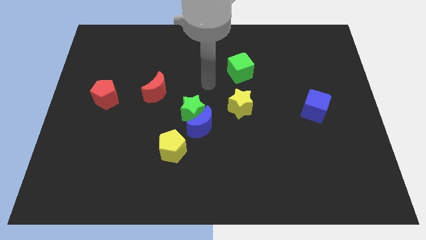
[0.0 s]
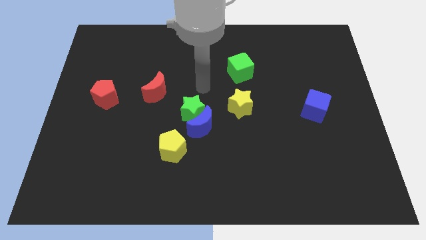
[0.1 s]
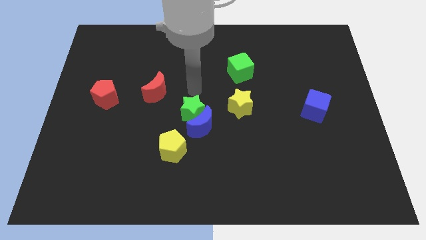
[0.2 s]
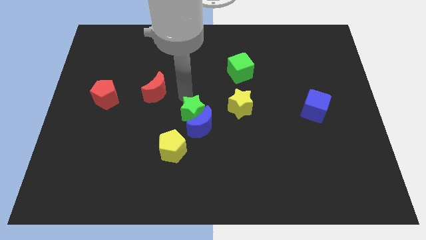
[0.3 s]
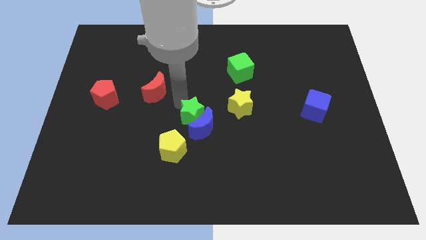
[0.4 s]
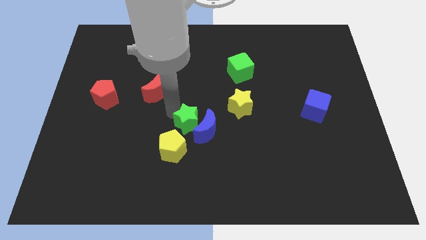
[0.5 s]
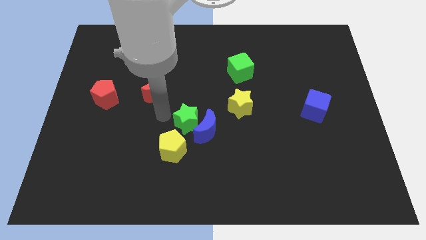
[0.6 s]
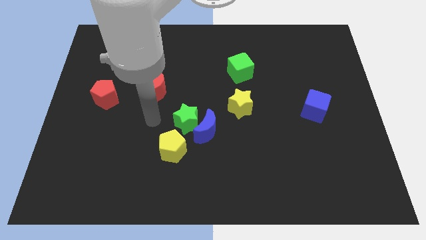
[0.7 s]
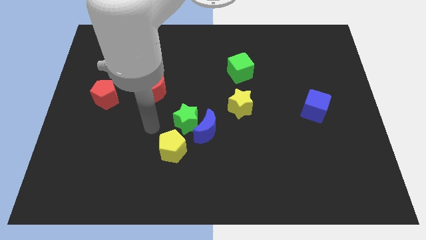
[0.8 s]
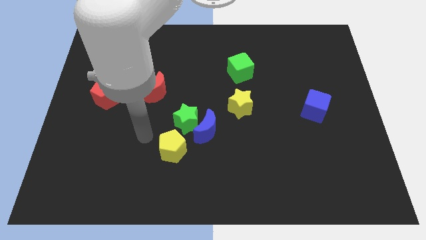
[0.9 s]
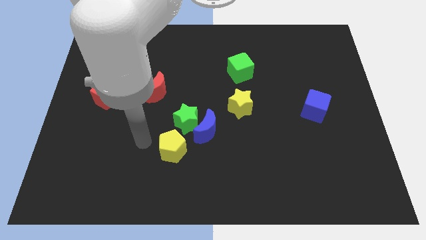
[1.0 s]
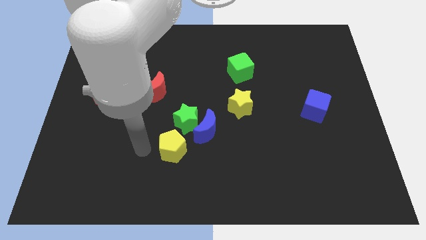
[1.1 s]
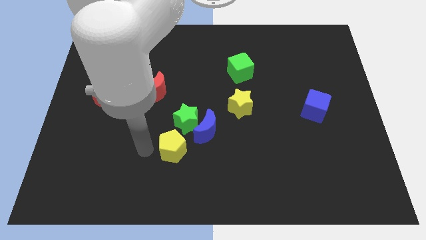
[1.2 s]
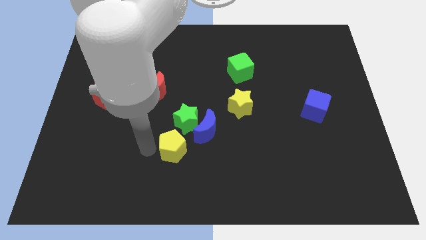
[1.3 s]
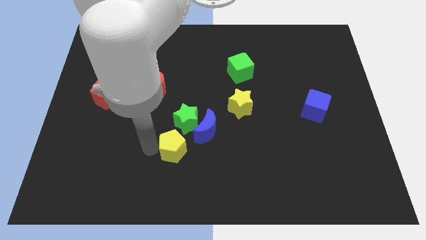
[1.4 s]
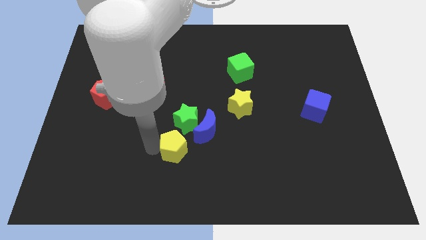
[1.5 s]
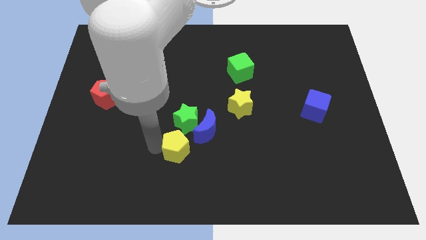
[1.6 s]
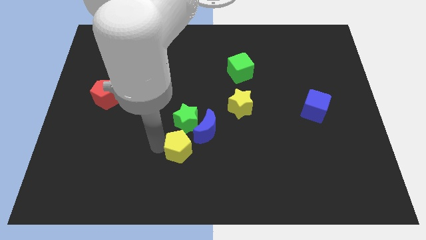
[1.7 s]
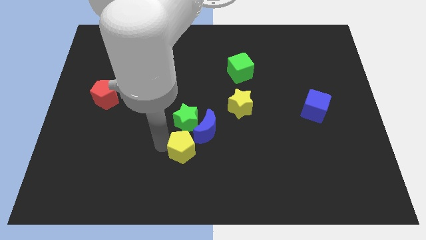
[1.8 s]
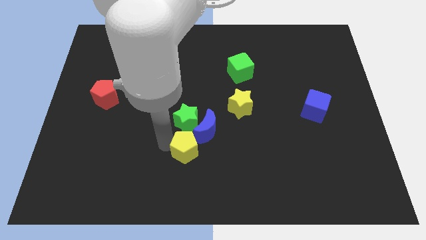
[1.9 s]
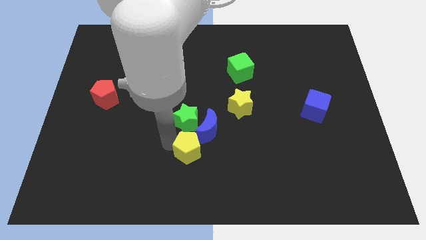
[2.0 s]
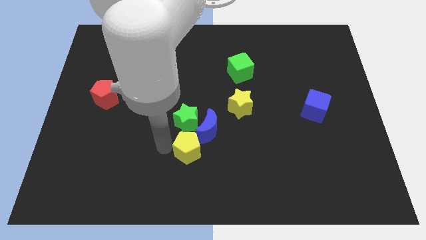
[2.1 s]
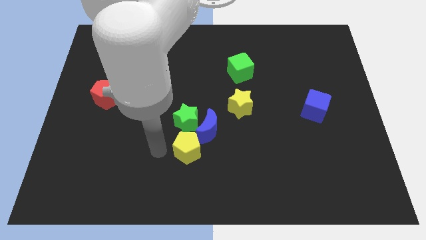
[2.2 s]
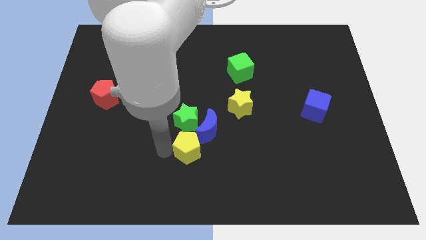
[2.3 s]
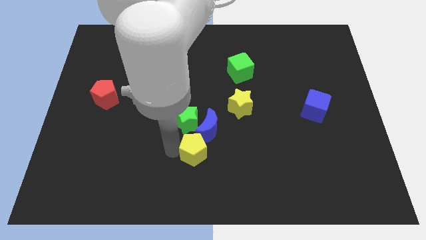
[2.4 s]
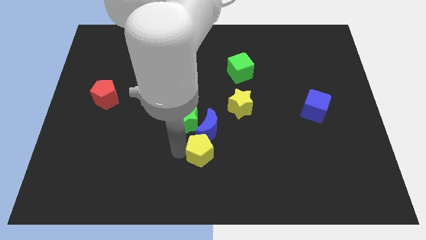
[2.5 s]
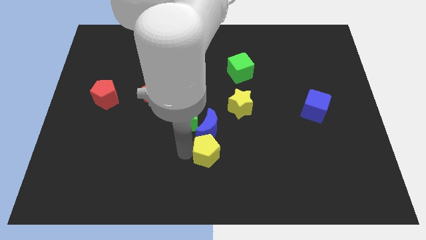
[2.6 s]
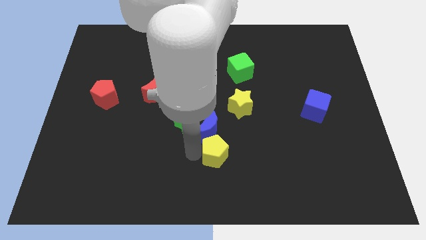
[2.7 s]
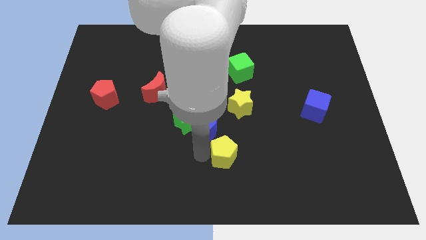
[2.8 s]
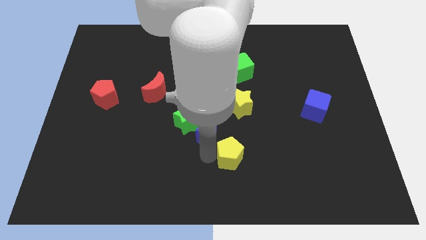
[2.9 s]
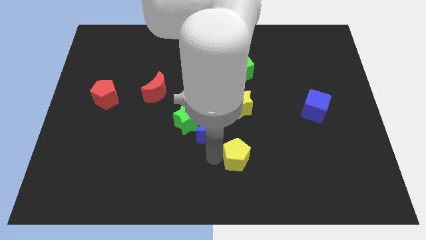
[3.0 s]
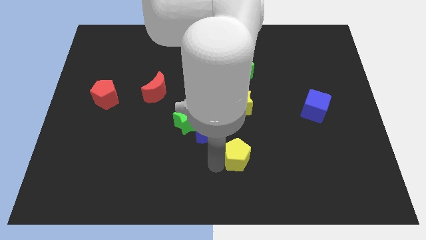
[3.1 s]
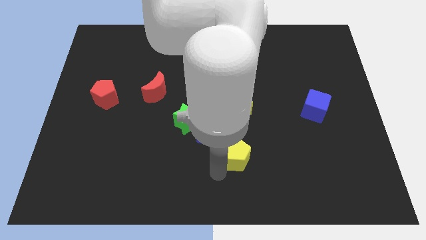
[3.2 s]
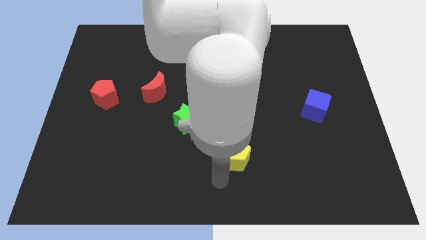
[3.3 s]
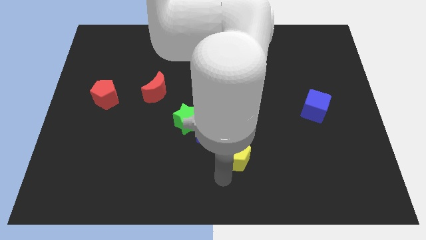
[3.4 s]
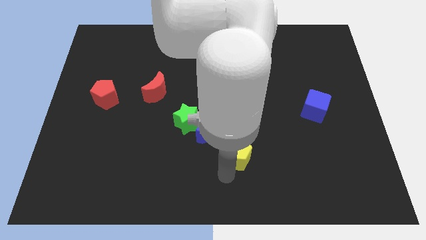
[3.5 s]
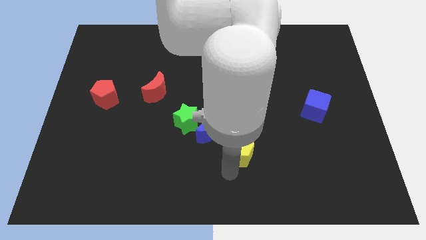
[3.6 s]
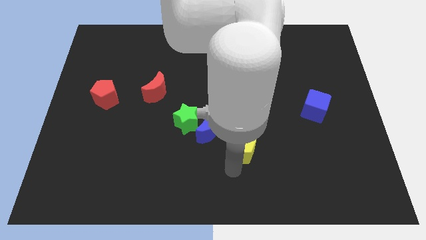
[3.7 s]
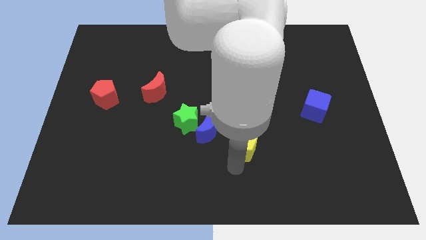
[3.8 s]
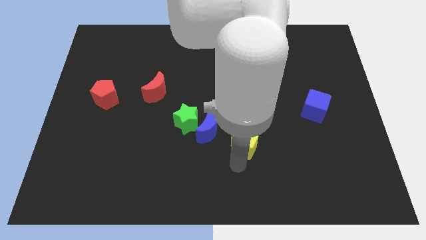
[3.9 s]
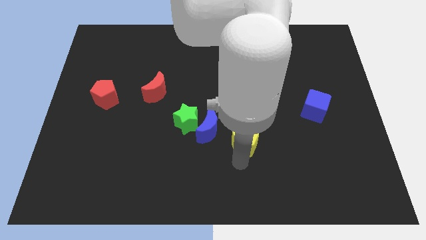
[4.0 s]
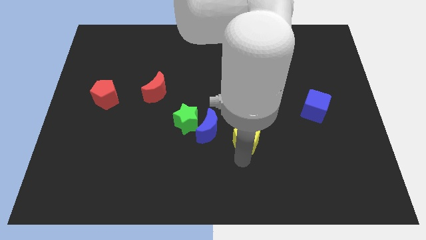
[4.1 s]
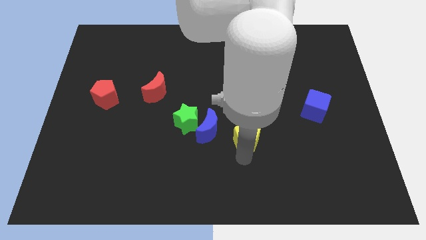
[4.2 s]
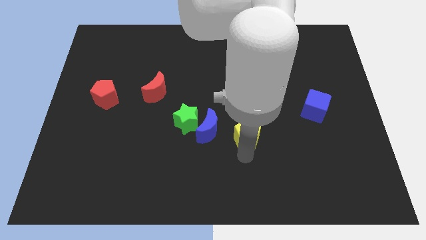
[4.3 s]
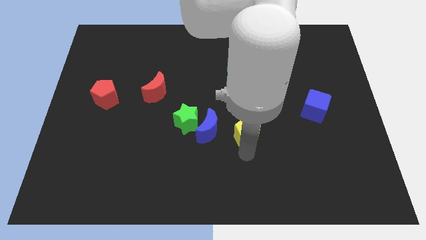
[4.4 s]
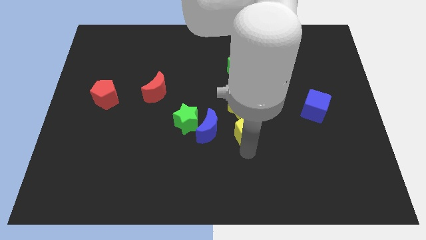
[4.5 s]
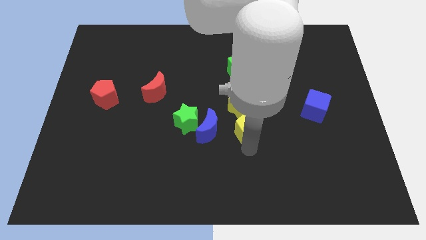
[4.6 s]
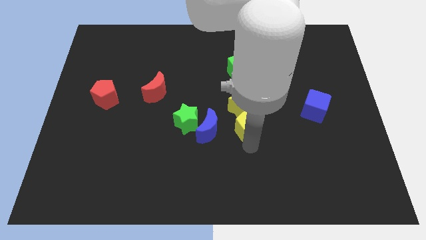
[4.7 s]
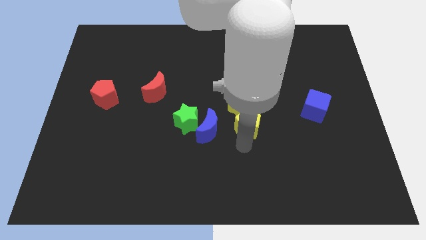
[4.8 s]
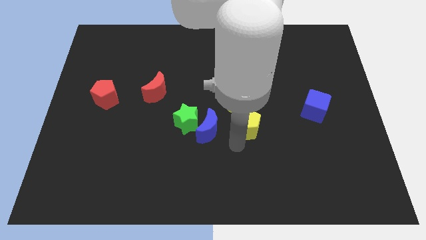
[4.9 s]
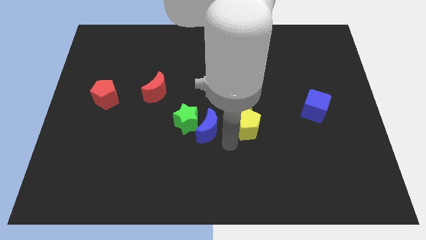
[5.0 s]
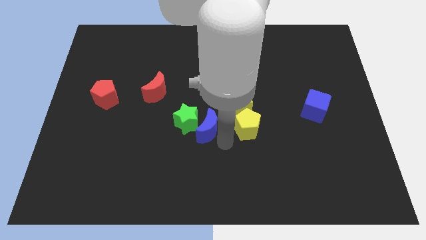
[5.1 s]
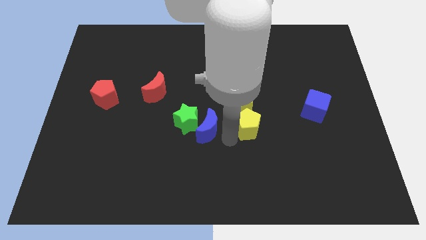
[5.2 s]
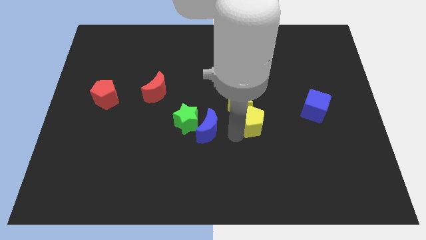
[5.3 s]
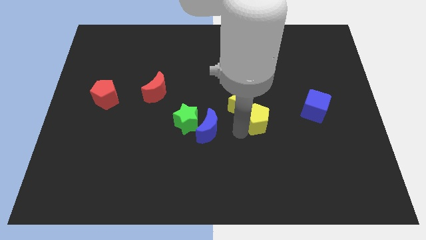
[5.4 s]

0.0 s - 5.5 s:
move the yellow pentagon just right of the yellow star

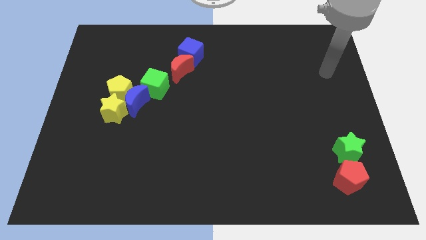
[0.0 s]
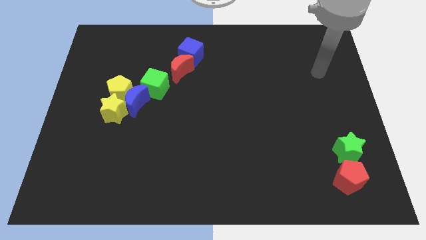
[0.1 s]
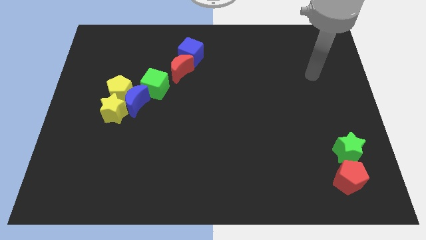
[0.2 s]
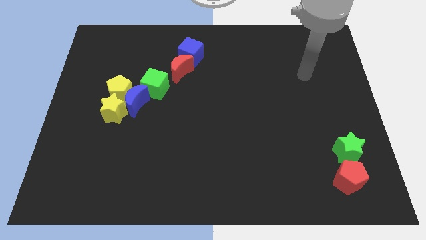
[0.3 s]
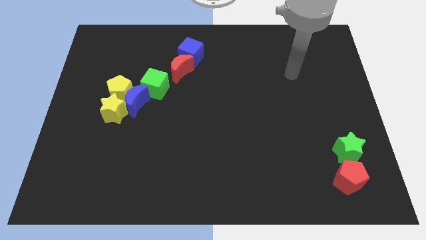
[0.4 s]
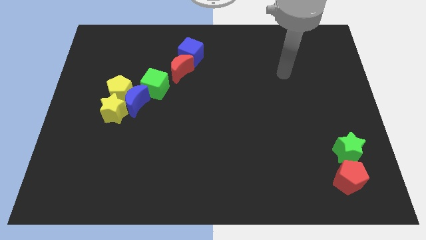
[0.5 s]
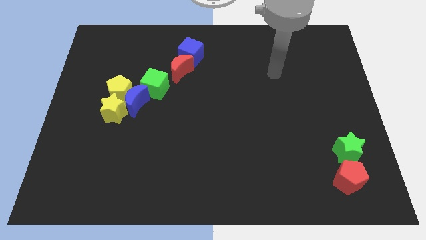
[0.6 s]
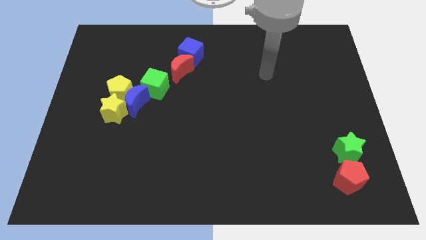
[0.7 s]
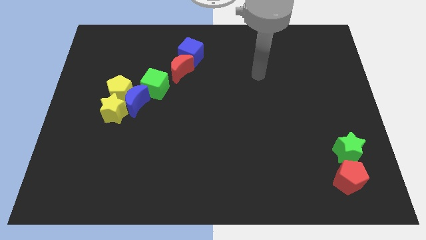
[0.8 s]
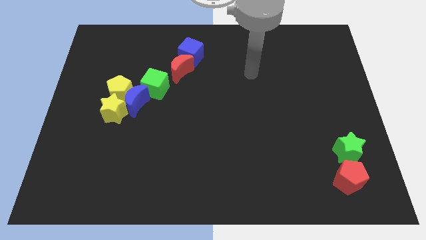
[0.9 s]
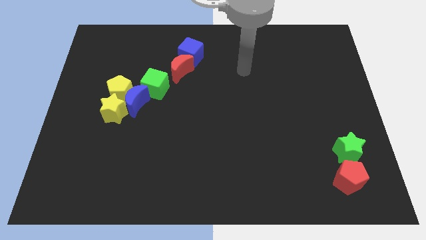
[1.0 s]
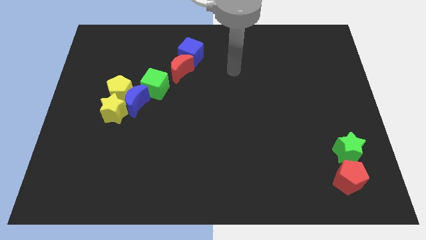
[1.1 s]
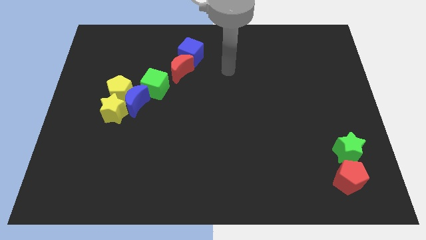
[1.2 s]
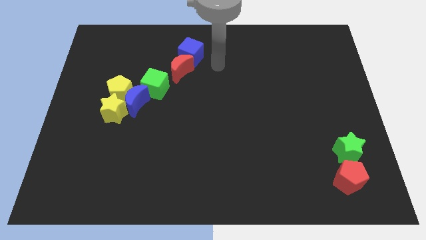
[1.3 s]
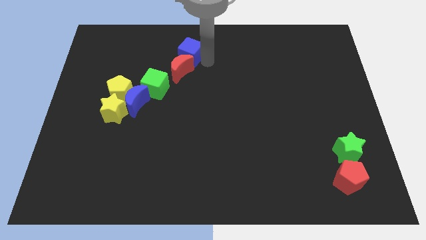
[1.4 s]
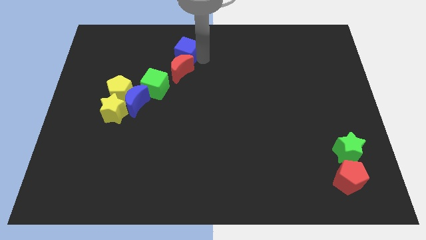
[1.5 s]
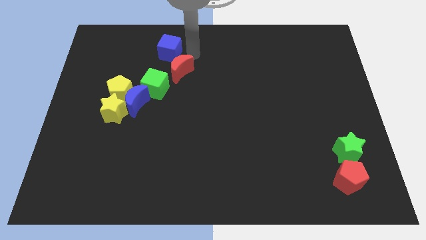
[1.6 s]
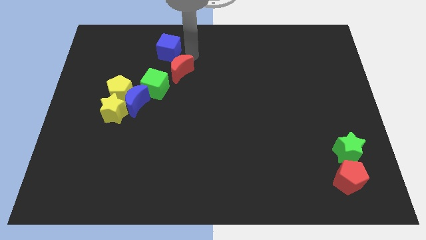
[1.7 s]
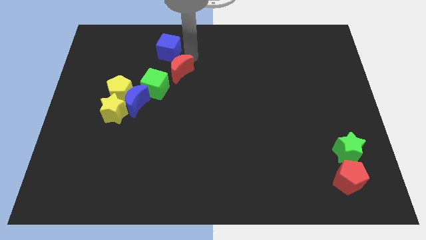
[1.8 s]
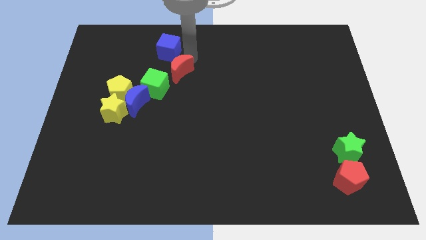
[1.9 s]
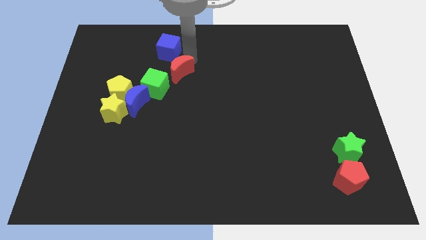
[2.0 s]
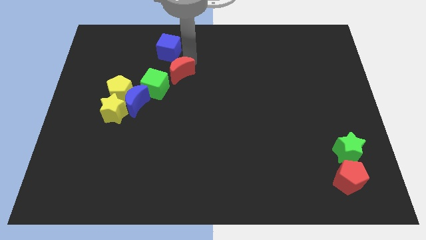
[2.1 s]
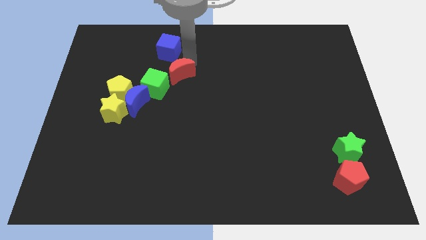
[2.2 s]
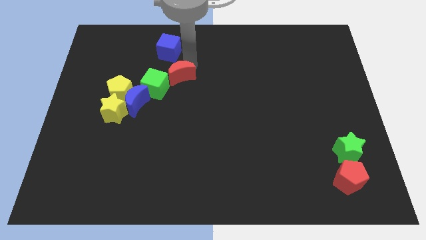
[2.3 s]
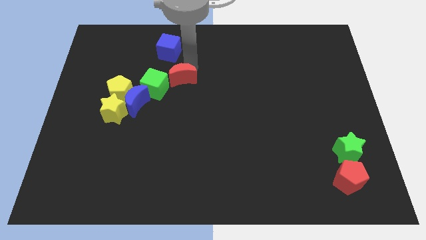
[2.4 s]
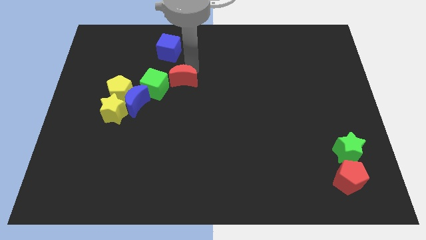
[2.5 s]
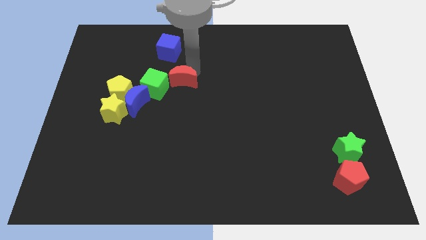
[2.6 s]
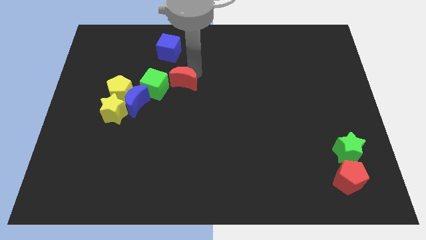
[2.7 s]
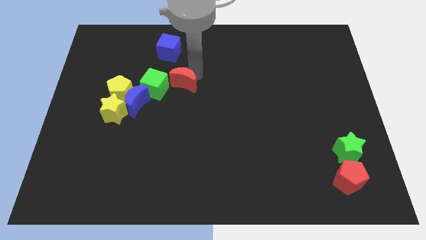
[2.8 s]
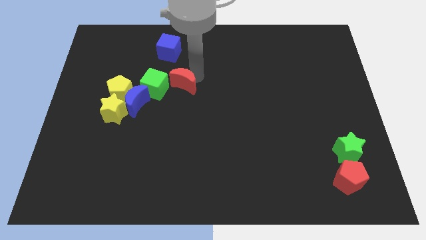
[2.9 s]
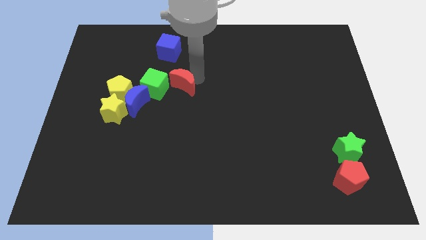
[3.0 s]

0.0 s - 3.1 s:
push the red moon just right of the yellow pentagon
